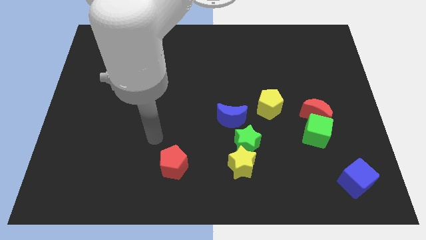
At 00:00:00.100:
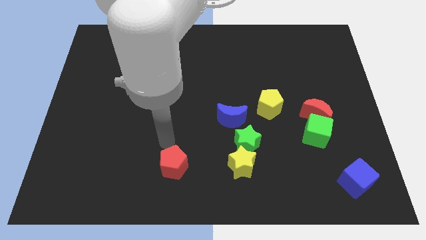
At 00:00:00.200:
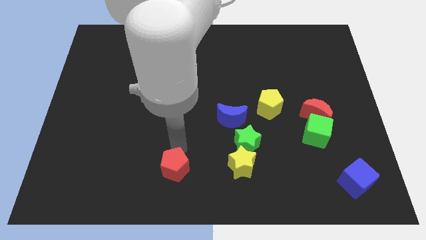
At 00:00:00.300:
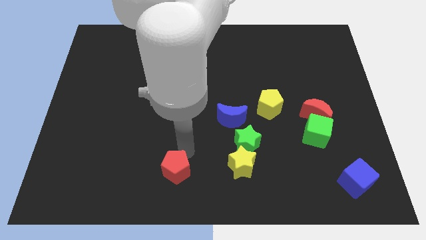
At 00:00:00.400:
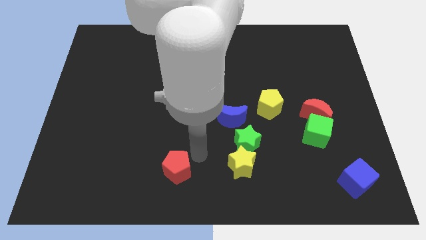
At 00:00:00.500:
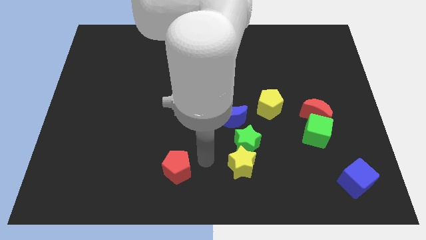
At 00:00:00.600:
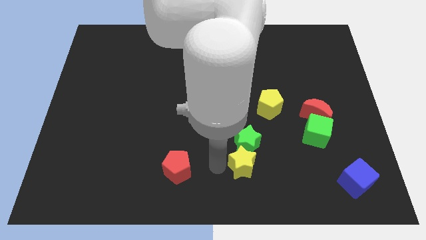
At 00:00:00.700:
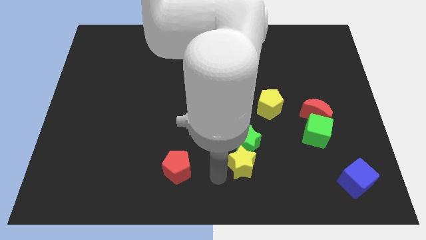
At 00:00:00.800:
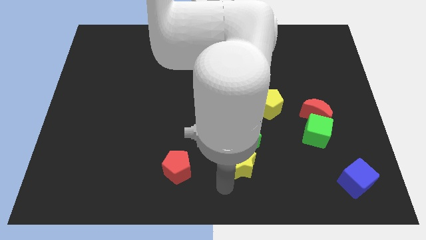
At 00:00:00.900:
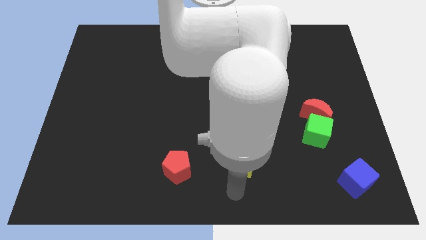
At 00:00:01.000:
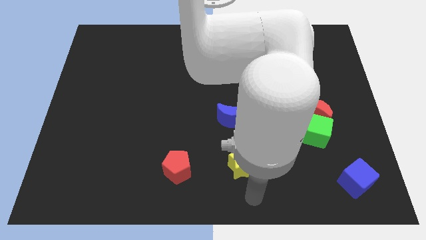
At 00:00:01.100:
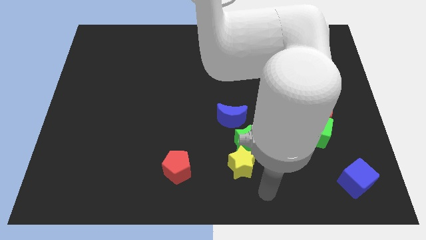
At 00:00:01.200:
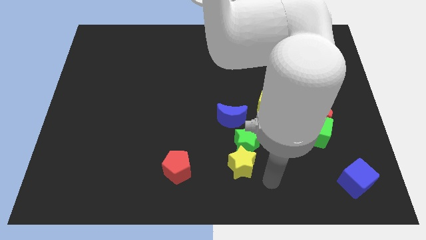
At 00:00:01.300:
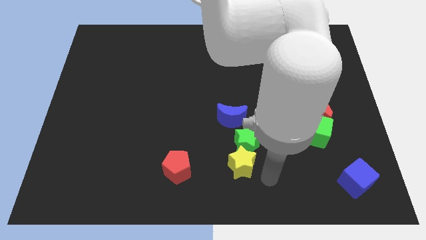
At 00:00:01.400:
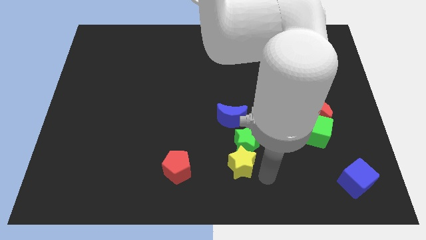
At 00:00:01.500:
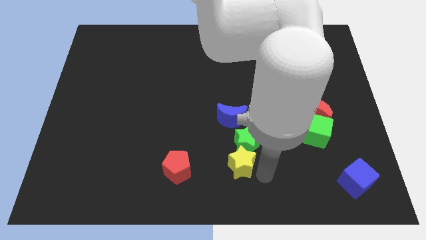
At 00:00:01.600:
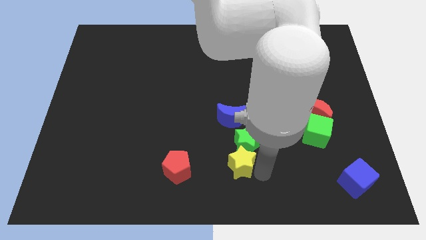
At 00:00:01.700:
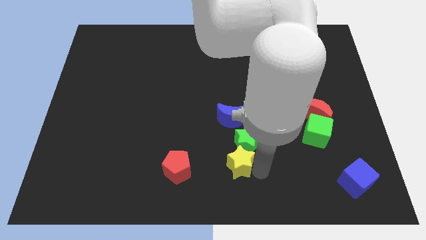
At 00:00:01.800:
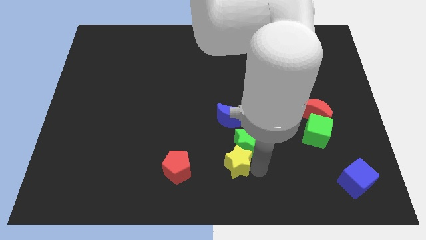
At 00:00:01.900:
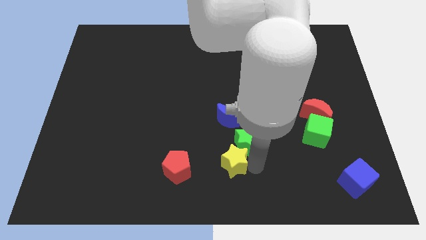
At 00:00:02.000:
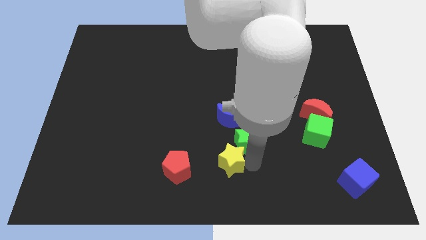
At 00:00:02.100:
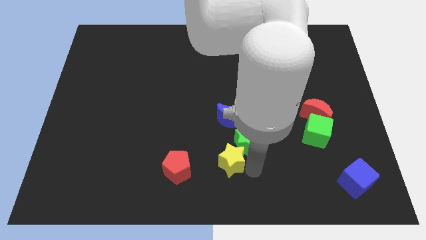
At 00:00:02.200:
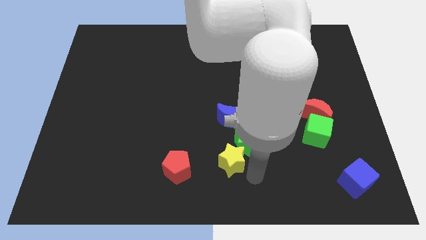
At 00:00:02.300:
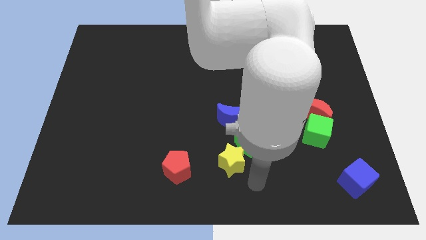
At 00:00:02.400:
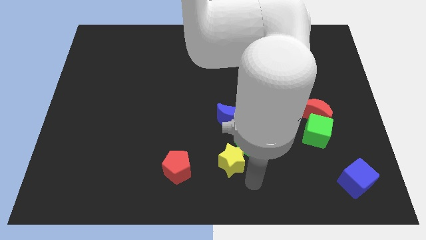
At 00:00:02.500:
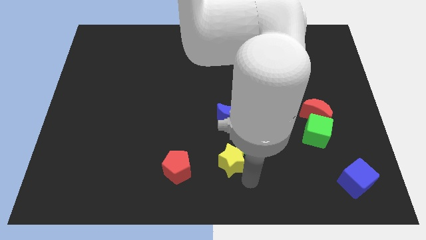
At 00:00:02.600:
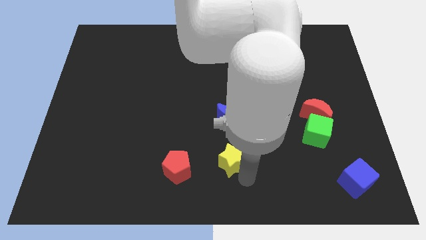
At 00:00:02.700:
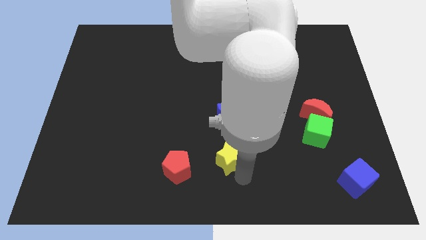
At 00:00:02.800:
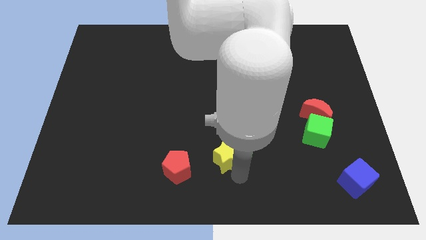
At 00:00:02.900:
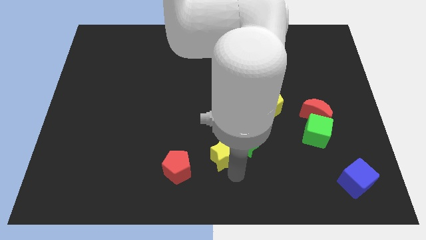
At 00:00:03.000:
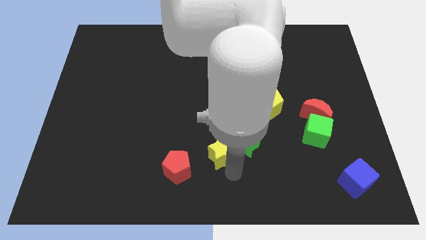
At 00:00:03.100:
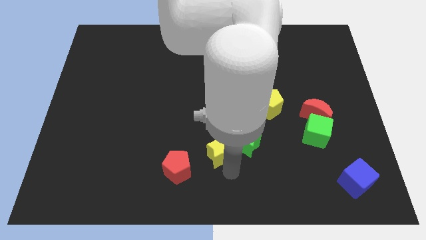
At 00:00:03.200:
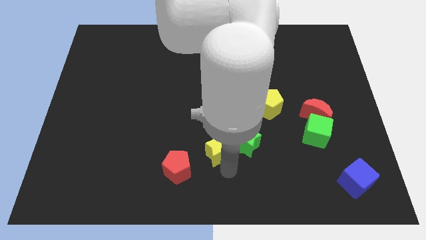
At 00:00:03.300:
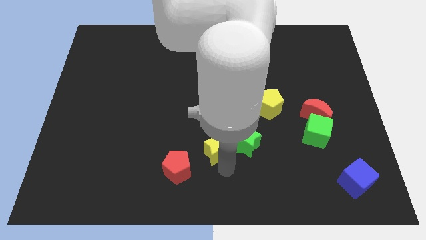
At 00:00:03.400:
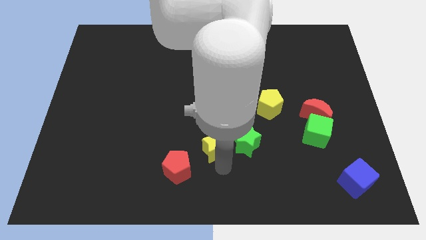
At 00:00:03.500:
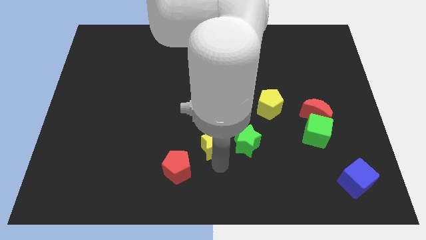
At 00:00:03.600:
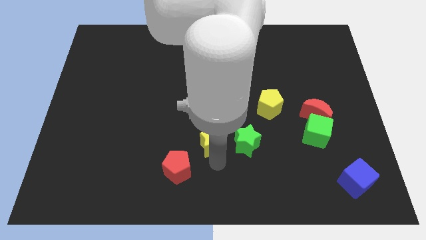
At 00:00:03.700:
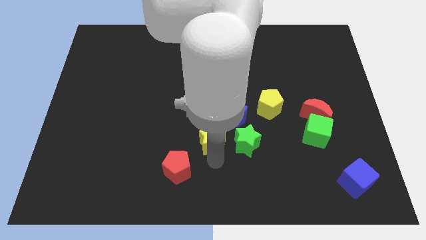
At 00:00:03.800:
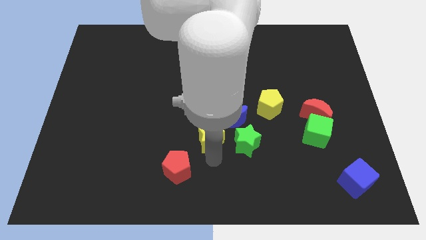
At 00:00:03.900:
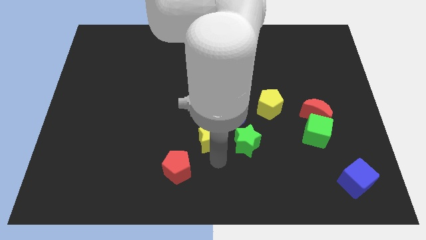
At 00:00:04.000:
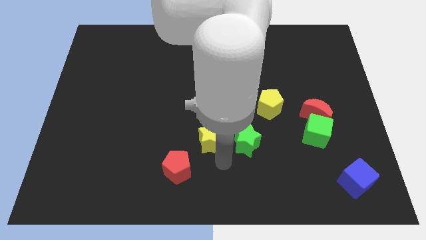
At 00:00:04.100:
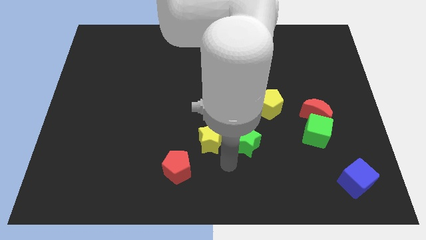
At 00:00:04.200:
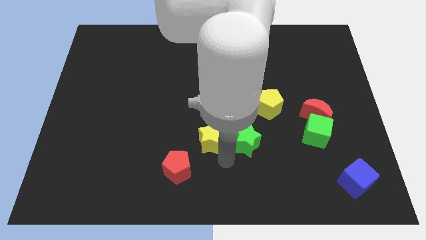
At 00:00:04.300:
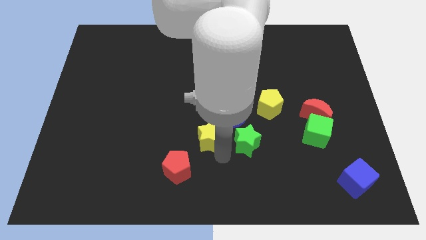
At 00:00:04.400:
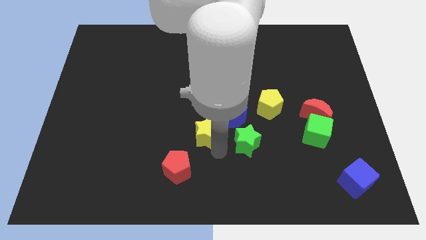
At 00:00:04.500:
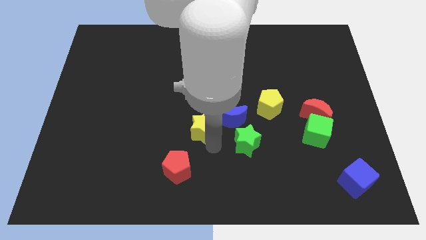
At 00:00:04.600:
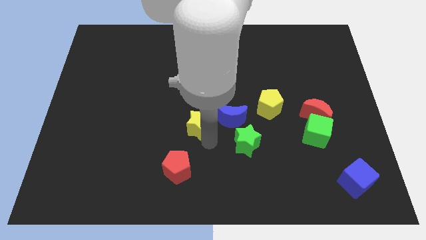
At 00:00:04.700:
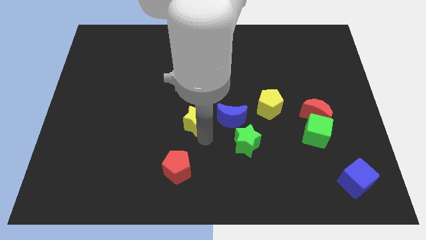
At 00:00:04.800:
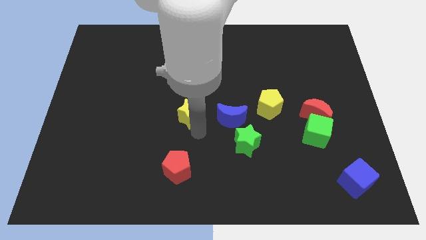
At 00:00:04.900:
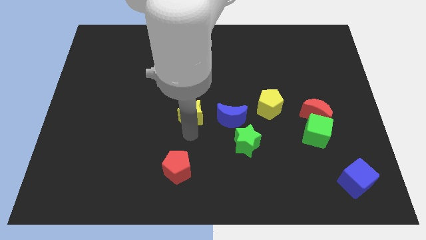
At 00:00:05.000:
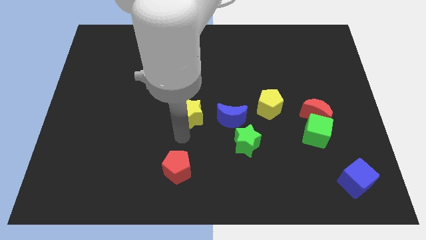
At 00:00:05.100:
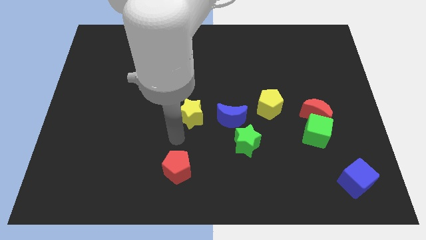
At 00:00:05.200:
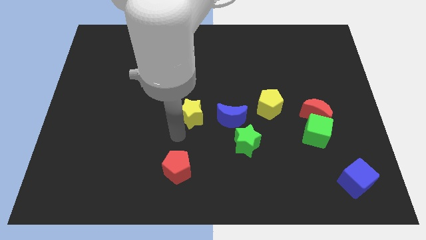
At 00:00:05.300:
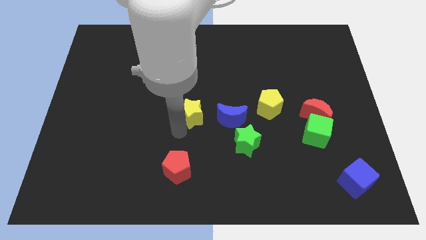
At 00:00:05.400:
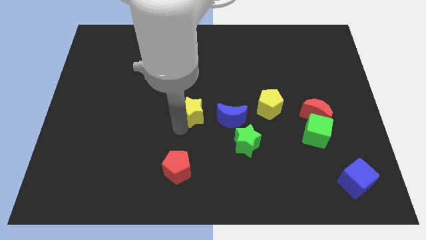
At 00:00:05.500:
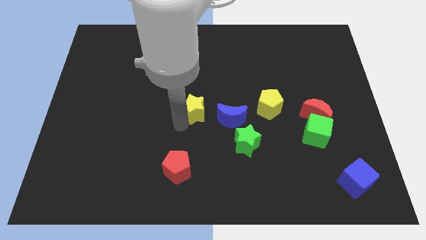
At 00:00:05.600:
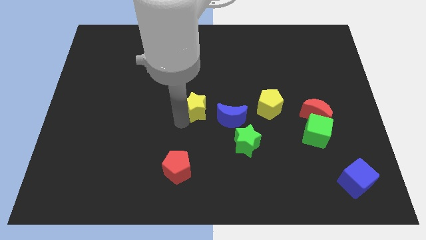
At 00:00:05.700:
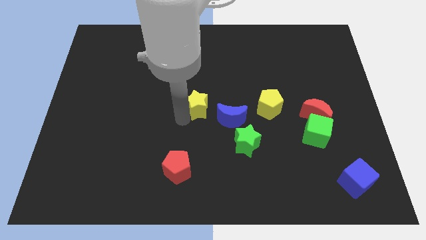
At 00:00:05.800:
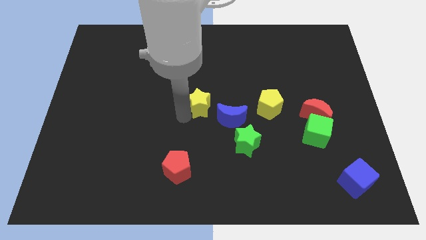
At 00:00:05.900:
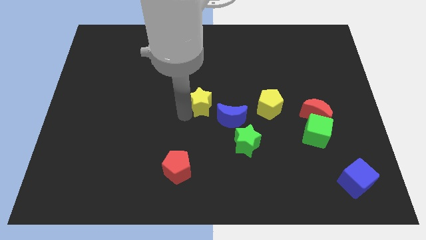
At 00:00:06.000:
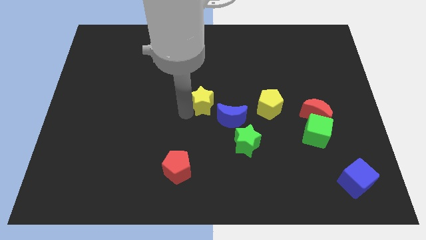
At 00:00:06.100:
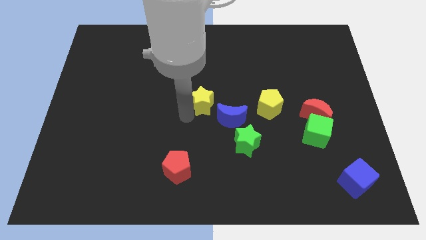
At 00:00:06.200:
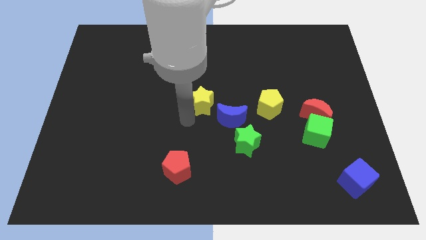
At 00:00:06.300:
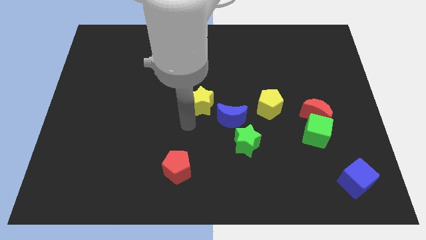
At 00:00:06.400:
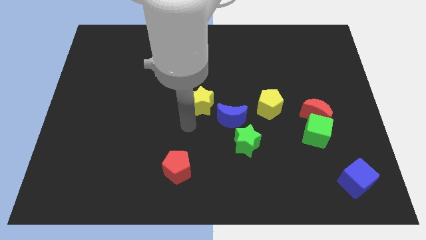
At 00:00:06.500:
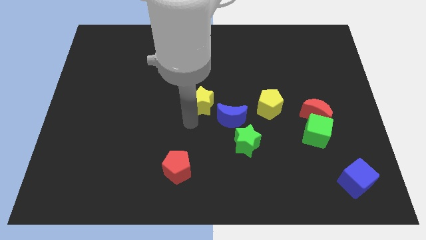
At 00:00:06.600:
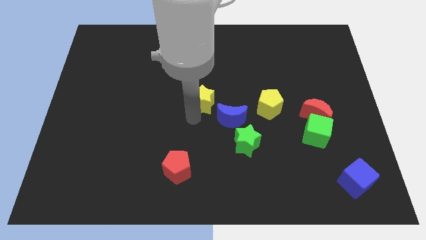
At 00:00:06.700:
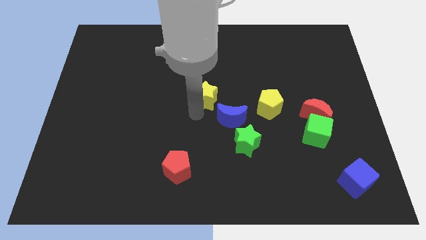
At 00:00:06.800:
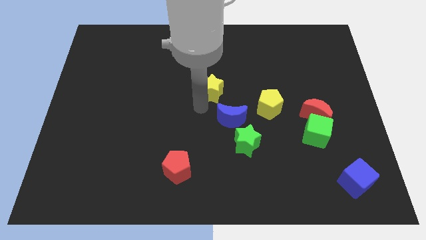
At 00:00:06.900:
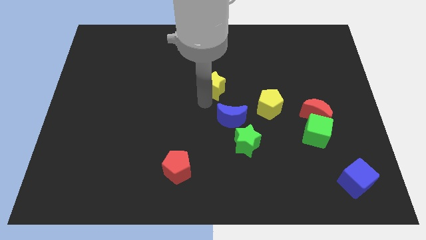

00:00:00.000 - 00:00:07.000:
move the yellow star up

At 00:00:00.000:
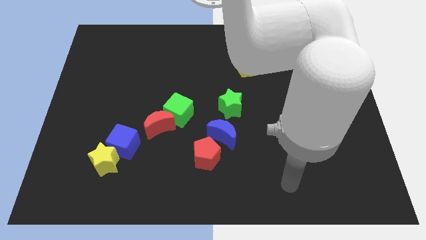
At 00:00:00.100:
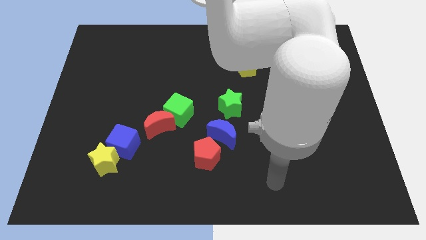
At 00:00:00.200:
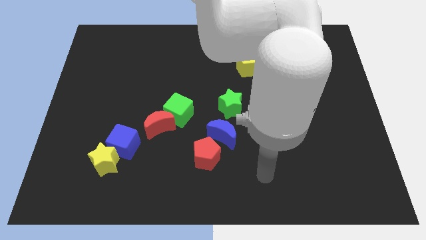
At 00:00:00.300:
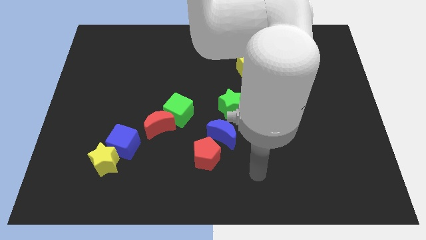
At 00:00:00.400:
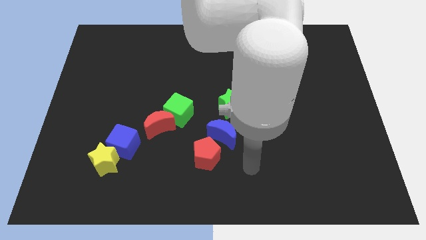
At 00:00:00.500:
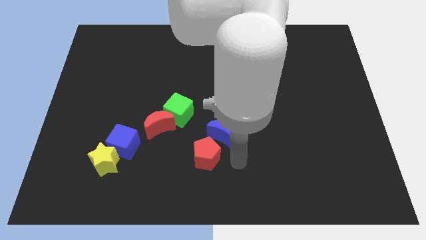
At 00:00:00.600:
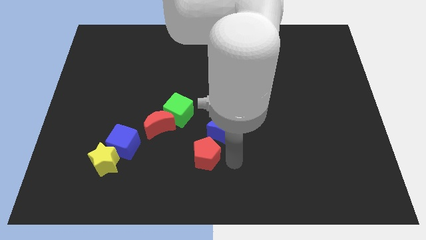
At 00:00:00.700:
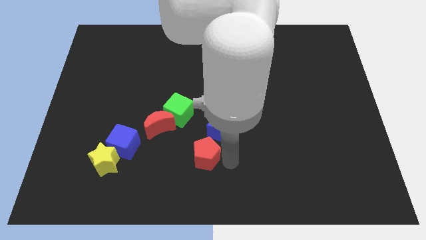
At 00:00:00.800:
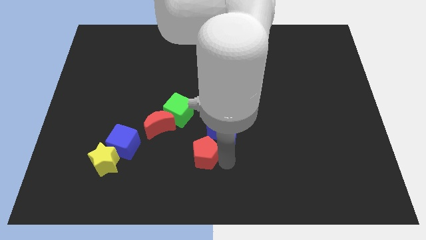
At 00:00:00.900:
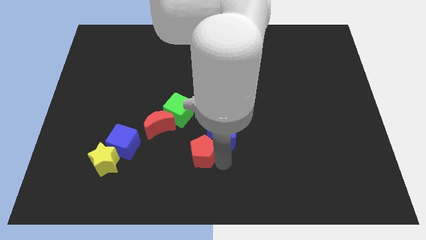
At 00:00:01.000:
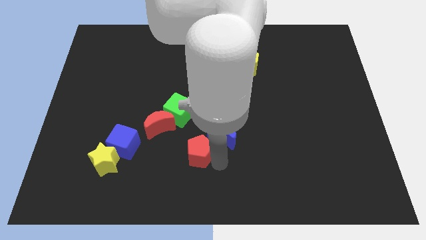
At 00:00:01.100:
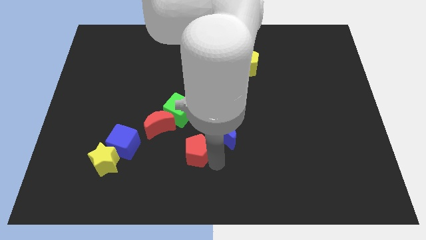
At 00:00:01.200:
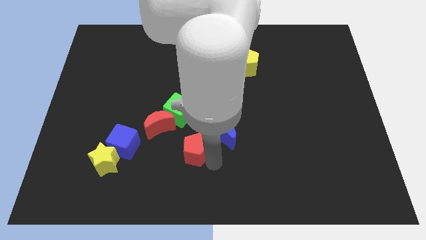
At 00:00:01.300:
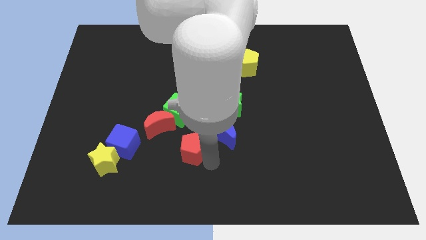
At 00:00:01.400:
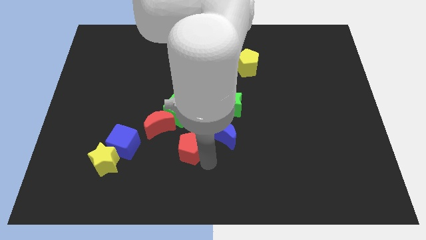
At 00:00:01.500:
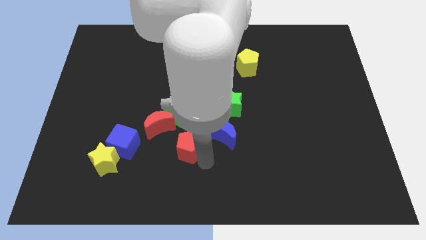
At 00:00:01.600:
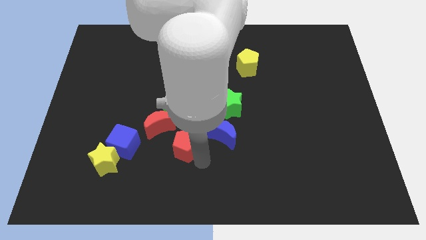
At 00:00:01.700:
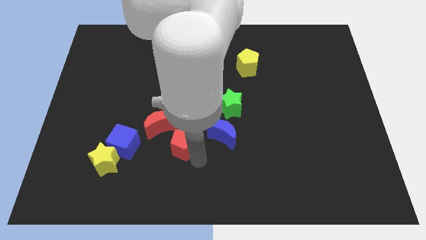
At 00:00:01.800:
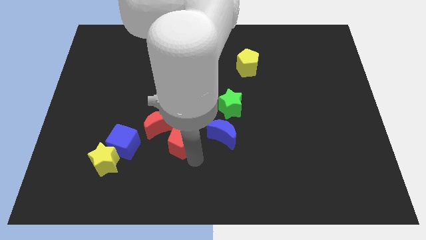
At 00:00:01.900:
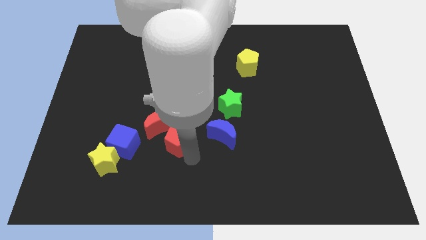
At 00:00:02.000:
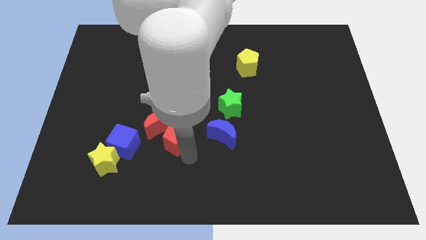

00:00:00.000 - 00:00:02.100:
slightly move the red pentagon up and then to the left
